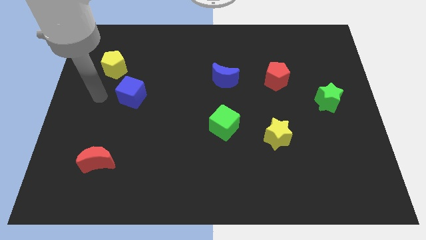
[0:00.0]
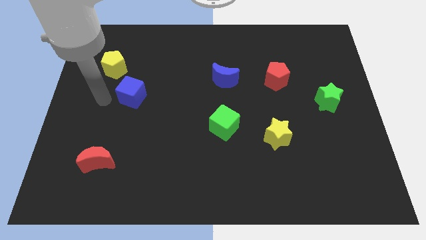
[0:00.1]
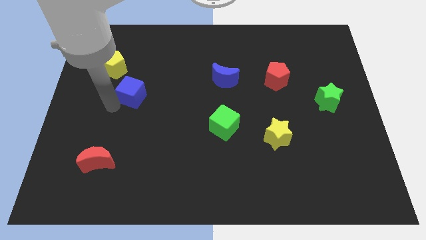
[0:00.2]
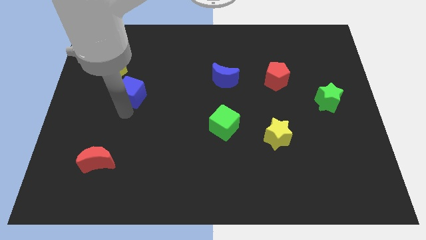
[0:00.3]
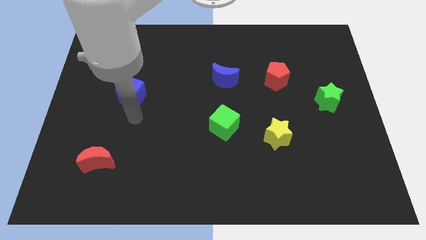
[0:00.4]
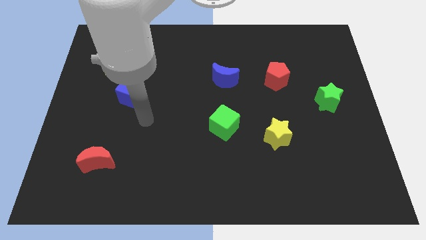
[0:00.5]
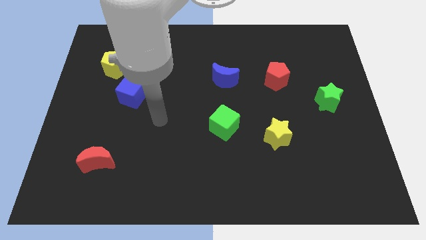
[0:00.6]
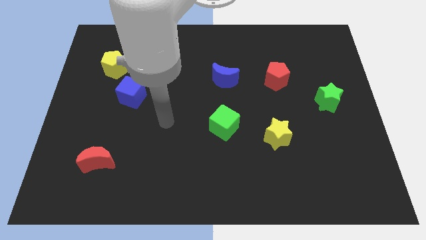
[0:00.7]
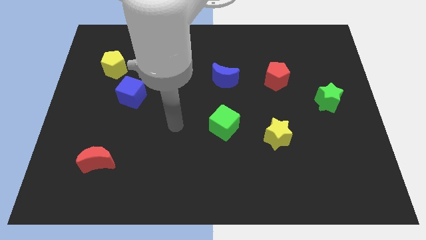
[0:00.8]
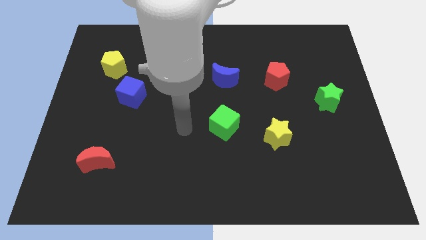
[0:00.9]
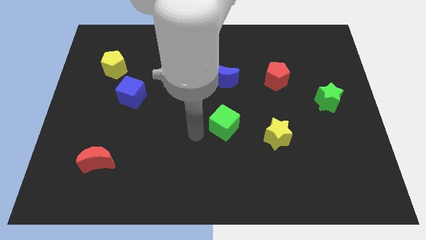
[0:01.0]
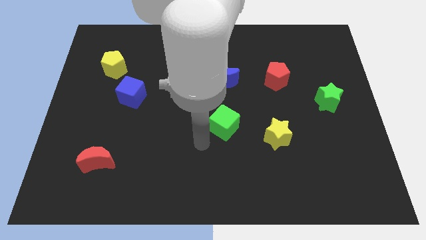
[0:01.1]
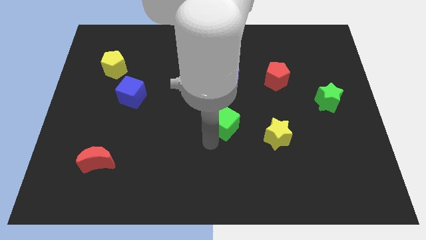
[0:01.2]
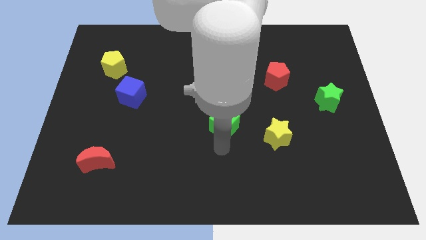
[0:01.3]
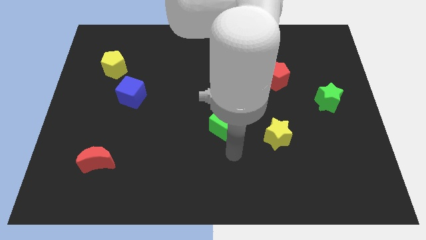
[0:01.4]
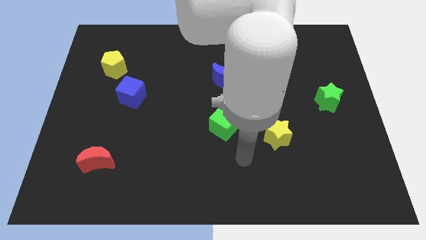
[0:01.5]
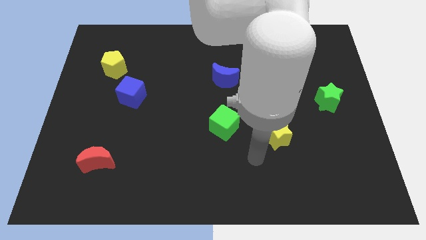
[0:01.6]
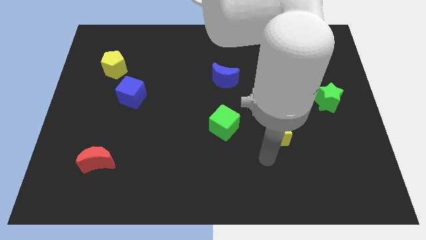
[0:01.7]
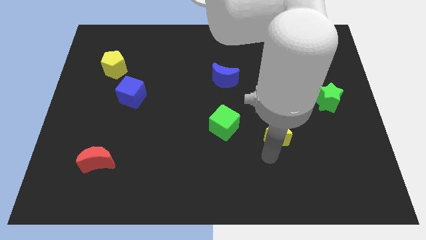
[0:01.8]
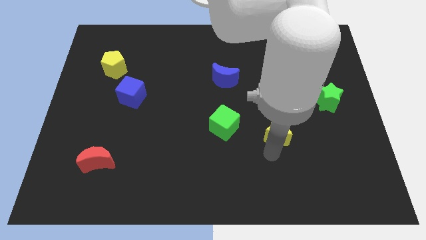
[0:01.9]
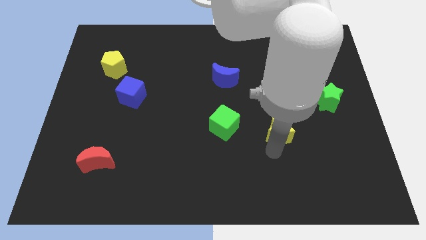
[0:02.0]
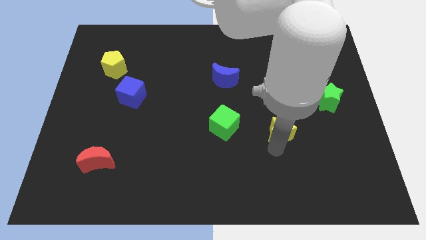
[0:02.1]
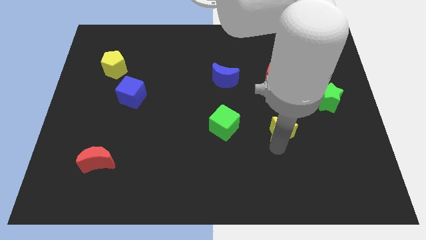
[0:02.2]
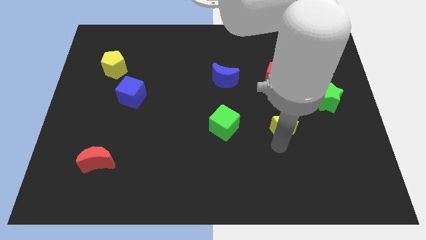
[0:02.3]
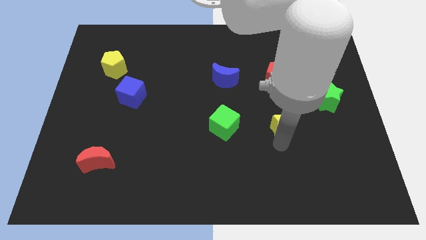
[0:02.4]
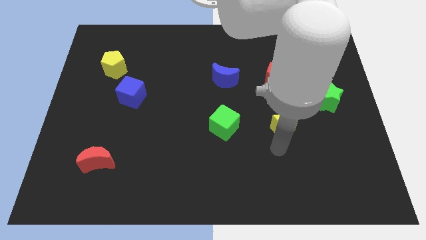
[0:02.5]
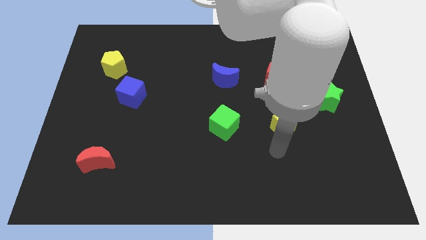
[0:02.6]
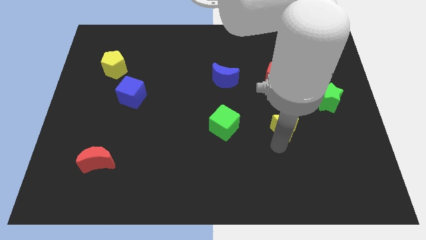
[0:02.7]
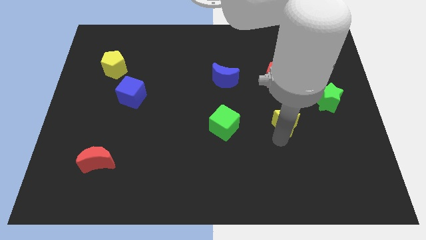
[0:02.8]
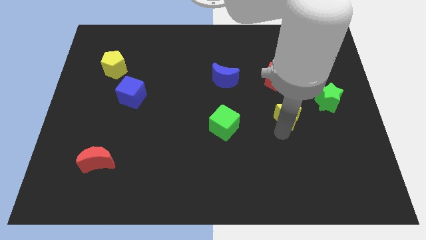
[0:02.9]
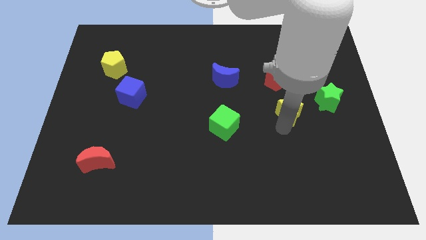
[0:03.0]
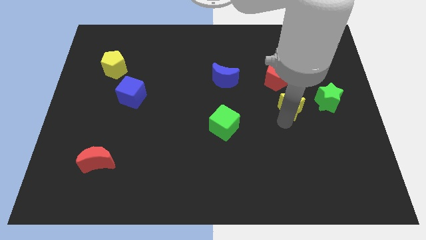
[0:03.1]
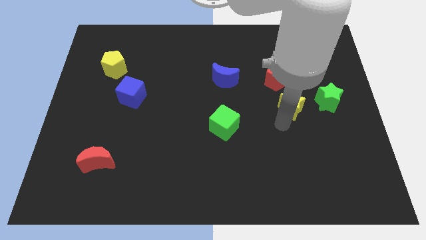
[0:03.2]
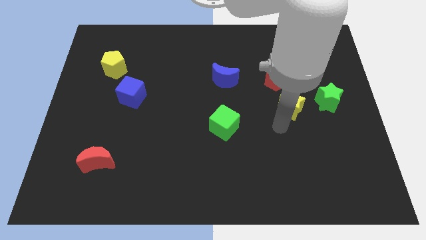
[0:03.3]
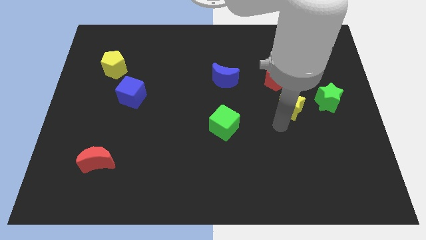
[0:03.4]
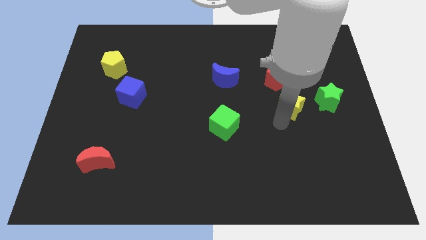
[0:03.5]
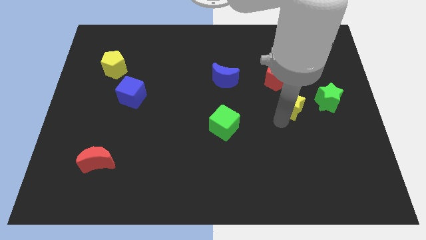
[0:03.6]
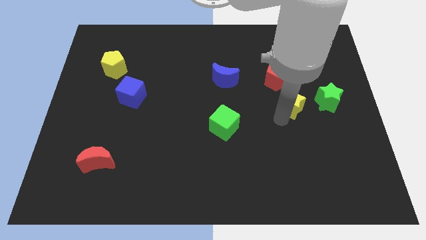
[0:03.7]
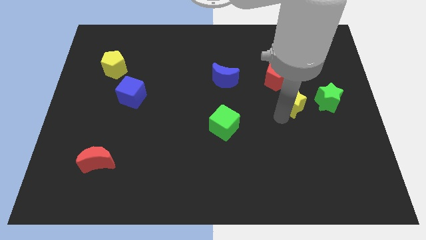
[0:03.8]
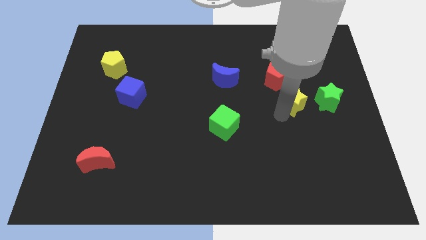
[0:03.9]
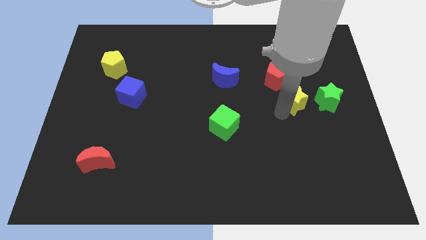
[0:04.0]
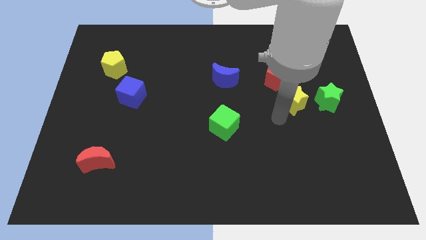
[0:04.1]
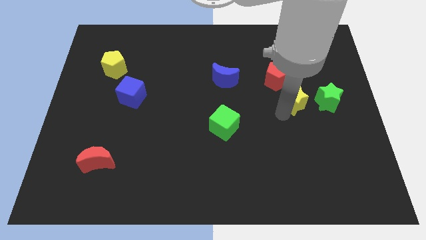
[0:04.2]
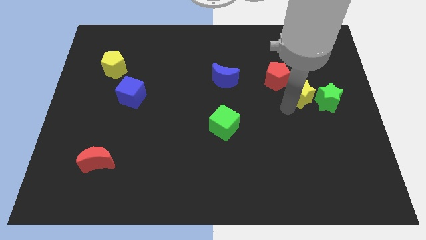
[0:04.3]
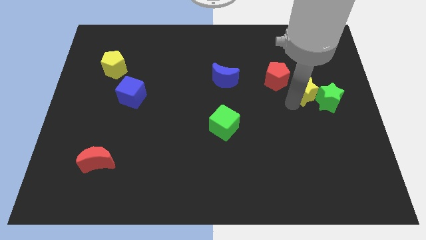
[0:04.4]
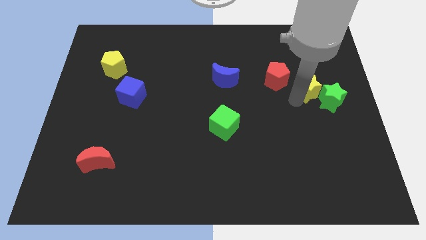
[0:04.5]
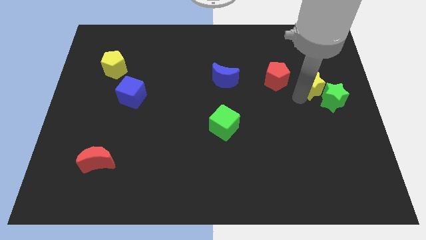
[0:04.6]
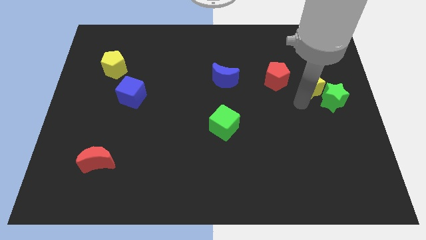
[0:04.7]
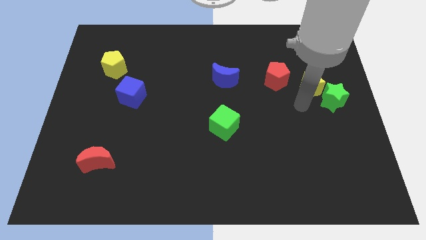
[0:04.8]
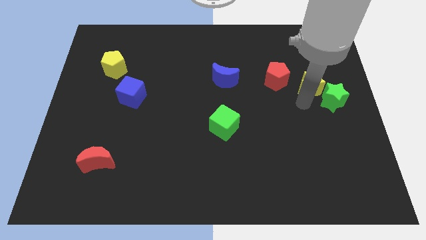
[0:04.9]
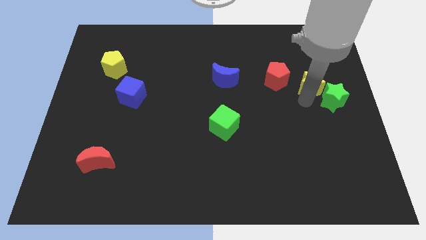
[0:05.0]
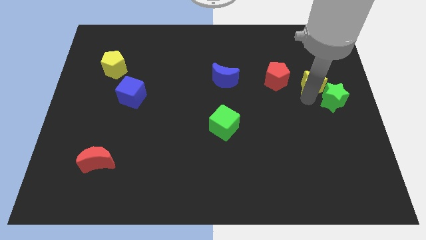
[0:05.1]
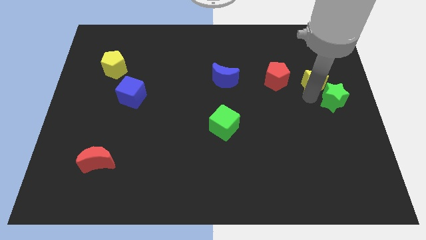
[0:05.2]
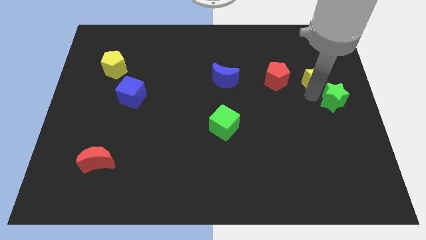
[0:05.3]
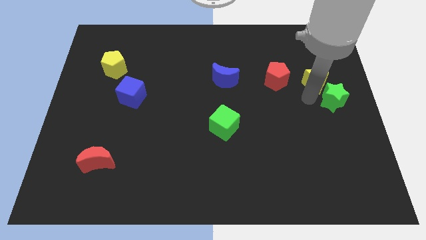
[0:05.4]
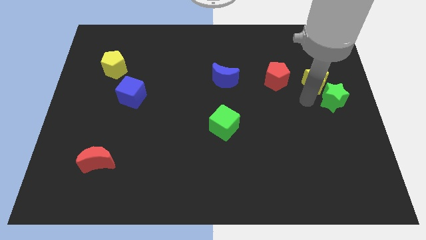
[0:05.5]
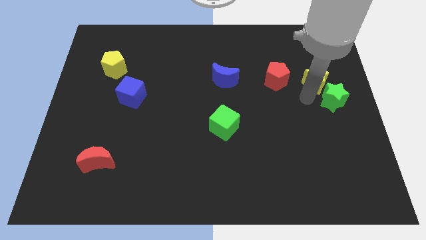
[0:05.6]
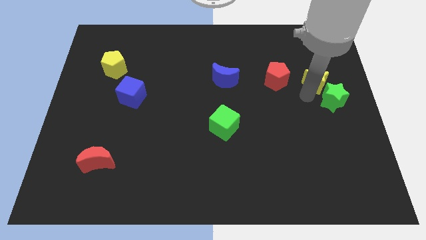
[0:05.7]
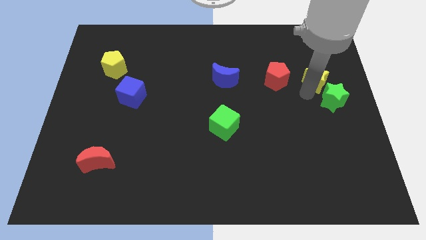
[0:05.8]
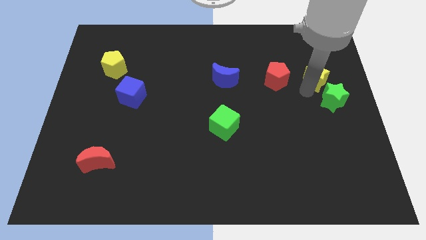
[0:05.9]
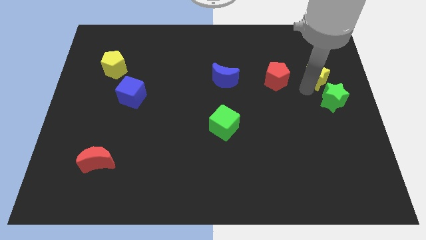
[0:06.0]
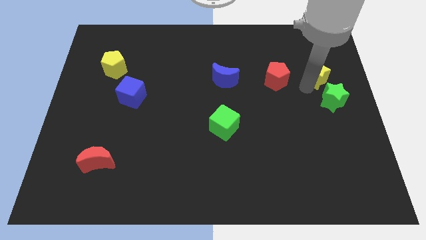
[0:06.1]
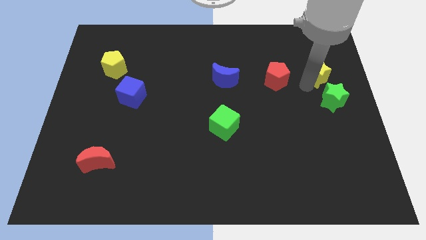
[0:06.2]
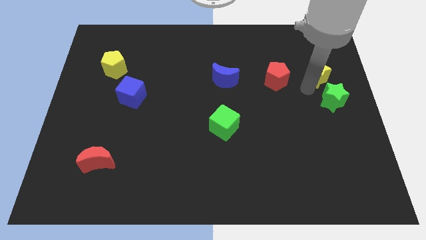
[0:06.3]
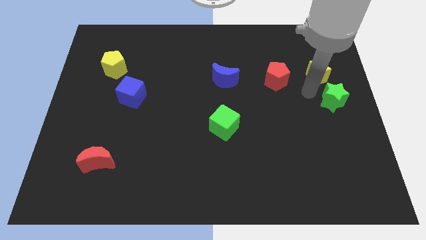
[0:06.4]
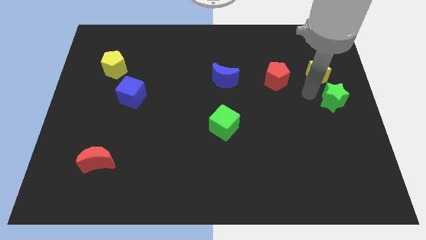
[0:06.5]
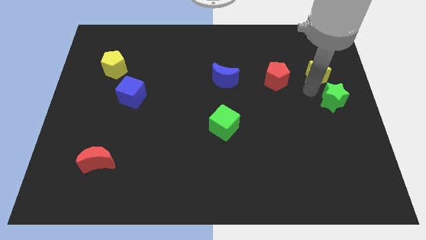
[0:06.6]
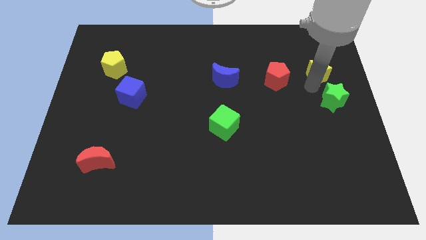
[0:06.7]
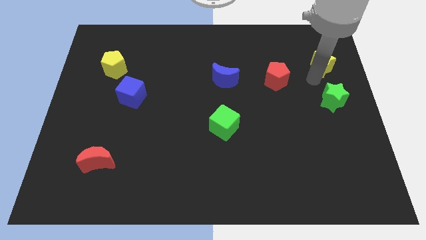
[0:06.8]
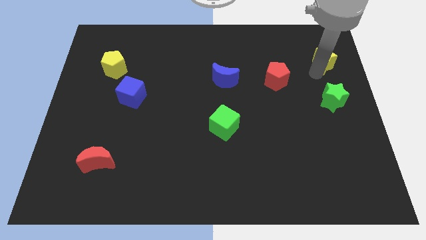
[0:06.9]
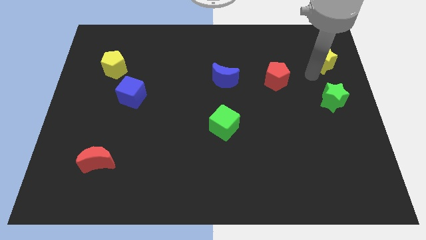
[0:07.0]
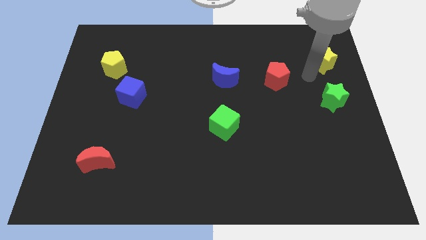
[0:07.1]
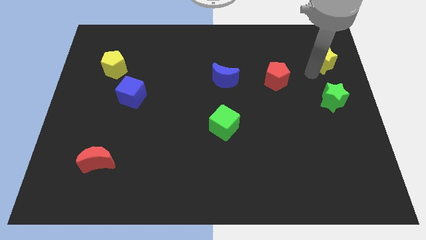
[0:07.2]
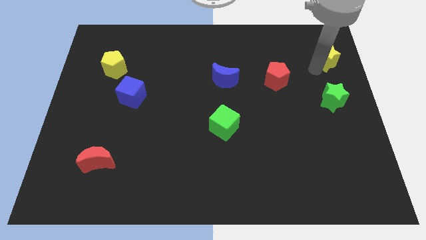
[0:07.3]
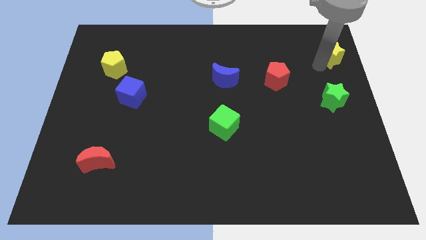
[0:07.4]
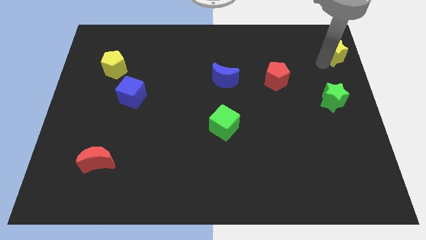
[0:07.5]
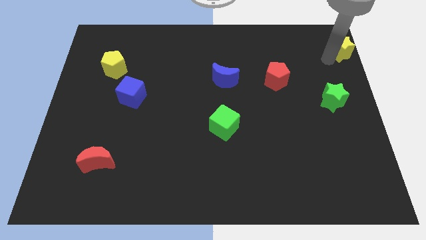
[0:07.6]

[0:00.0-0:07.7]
push the yellow star to the top right
